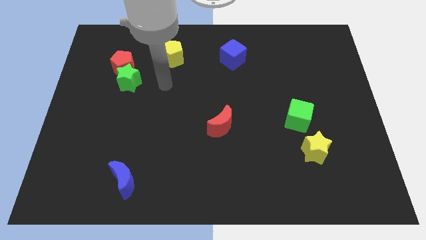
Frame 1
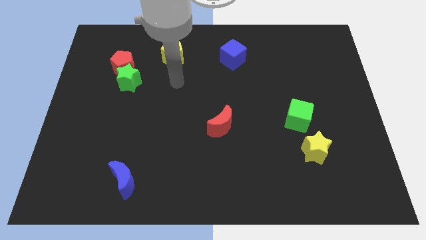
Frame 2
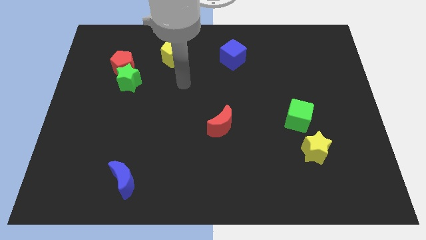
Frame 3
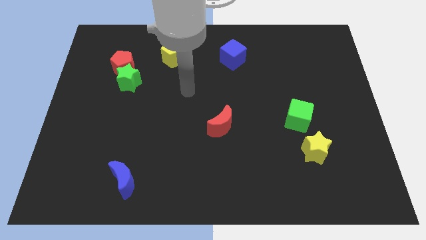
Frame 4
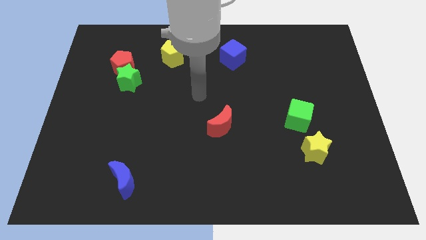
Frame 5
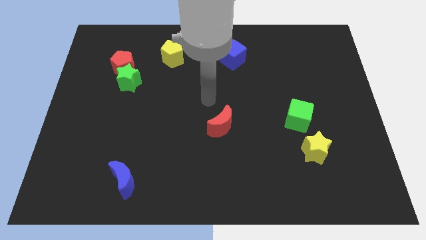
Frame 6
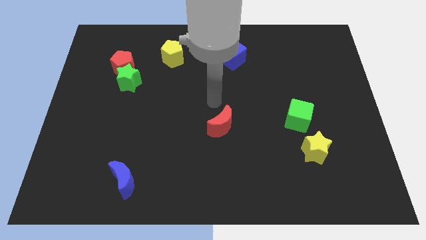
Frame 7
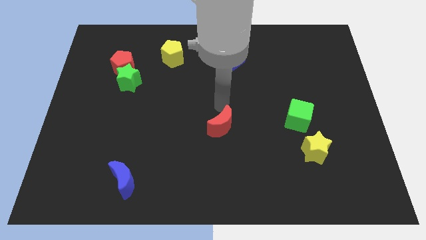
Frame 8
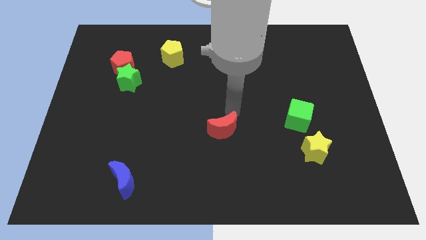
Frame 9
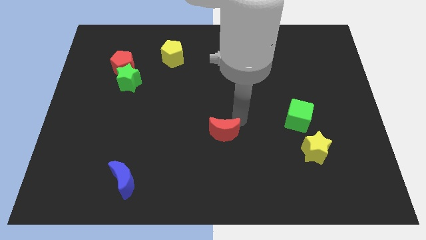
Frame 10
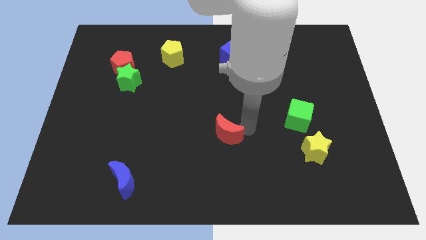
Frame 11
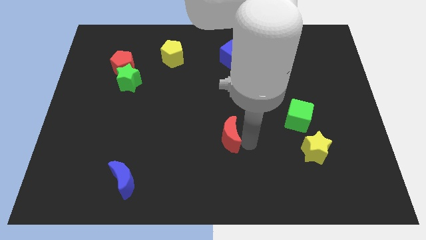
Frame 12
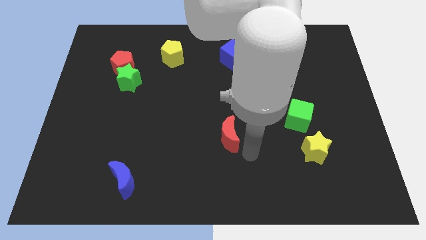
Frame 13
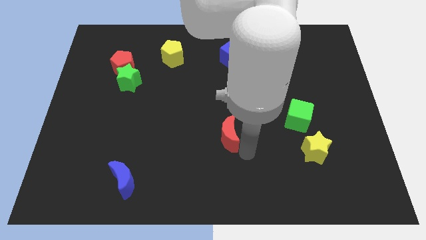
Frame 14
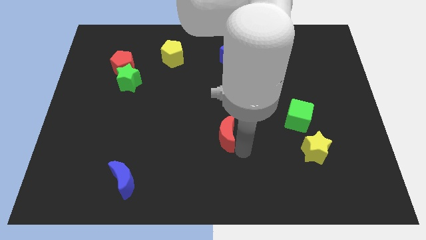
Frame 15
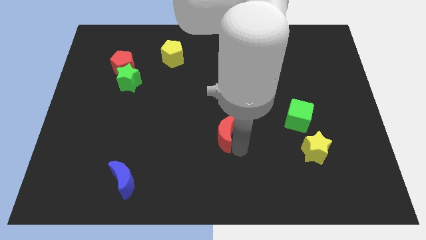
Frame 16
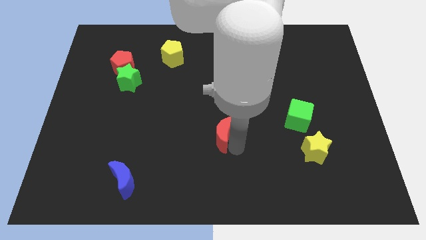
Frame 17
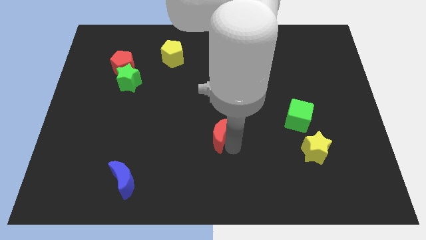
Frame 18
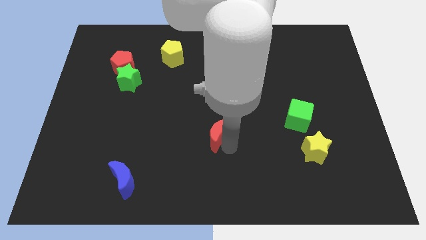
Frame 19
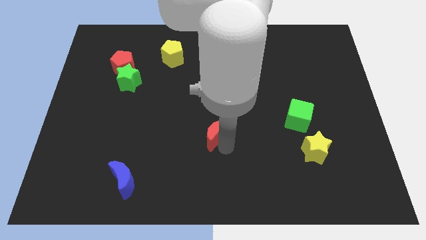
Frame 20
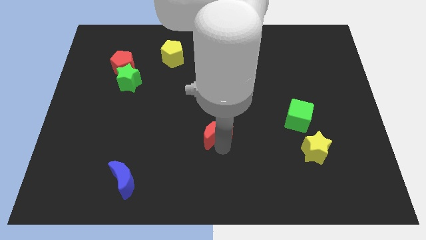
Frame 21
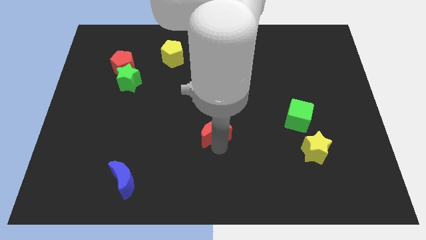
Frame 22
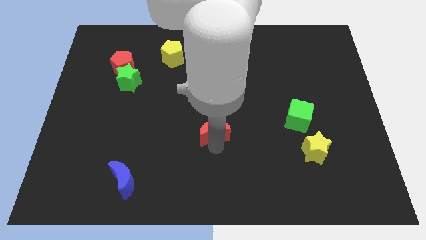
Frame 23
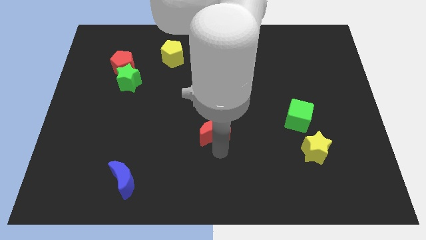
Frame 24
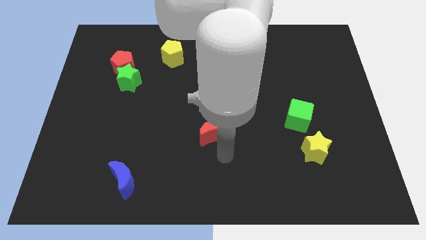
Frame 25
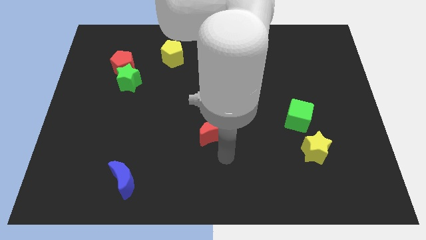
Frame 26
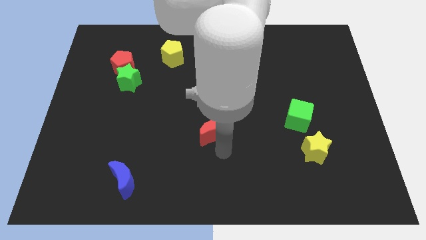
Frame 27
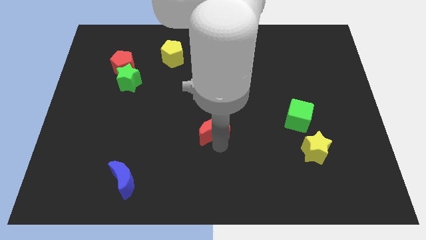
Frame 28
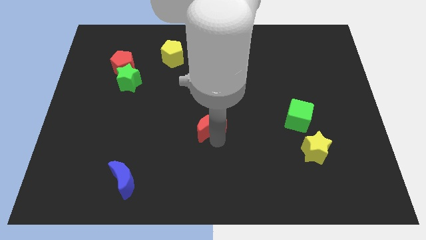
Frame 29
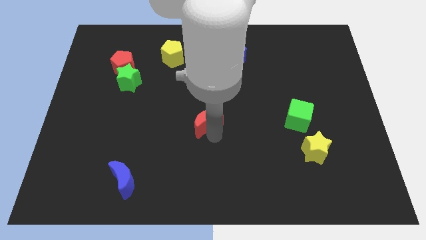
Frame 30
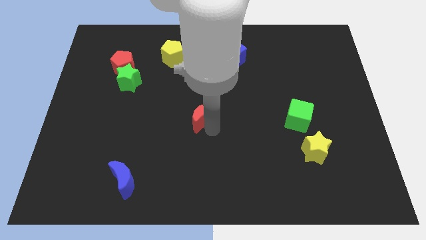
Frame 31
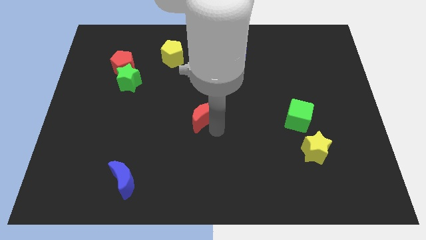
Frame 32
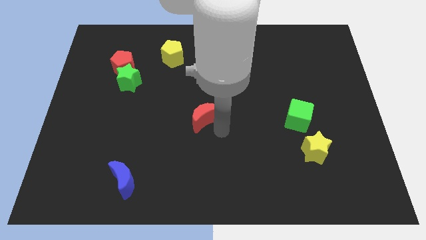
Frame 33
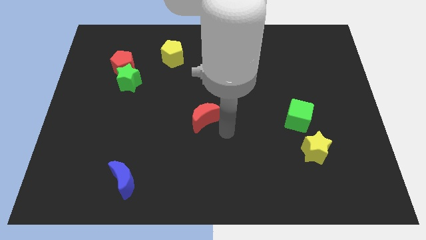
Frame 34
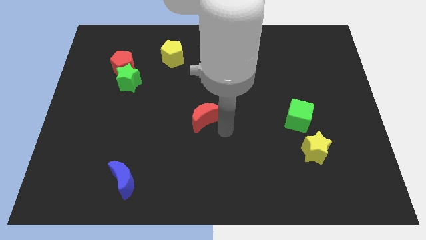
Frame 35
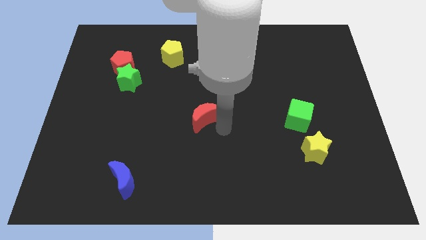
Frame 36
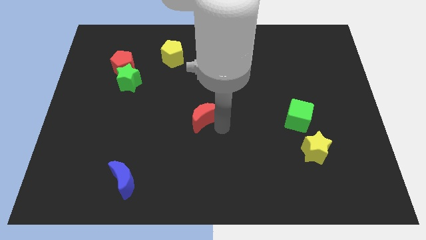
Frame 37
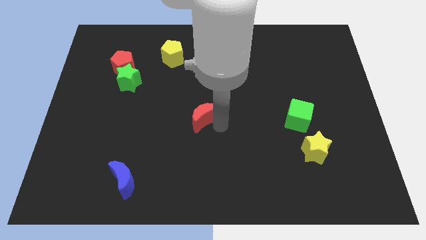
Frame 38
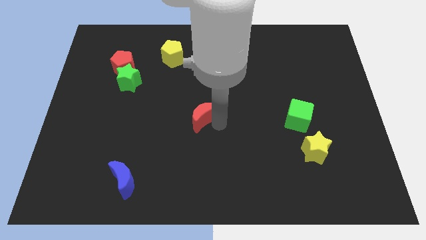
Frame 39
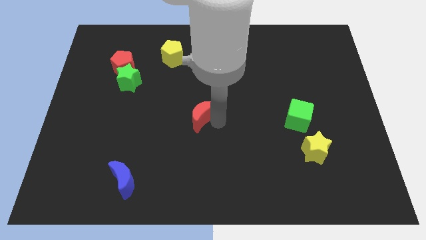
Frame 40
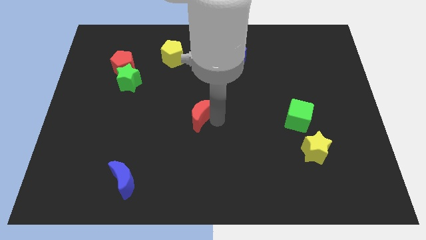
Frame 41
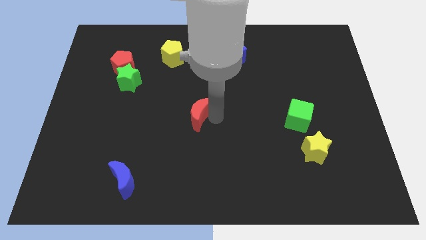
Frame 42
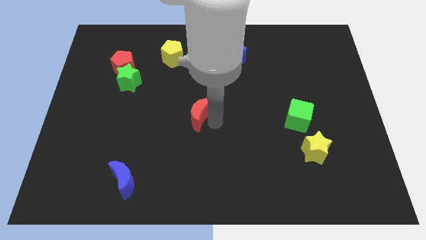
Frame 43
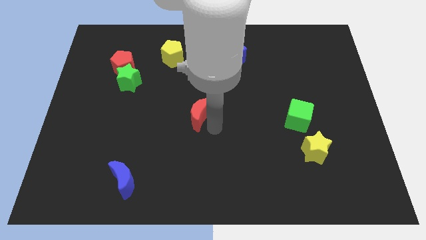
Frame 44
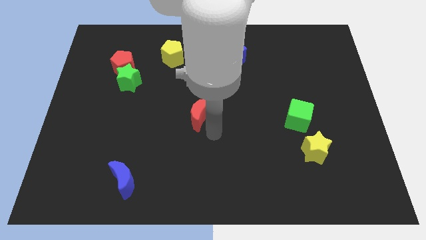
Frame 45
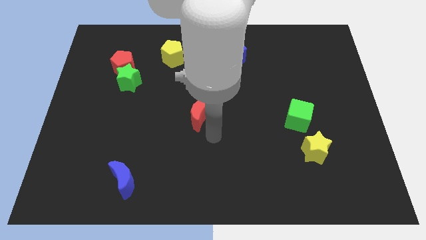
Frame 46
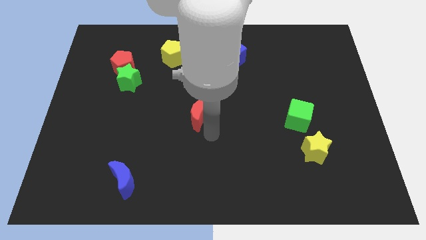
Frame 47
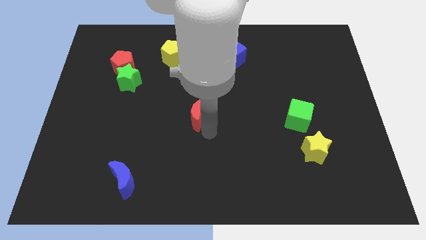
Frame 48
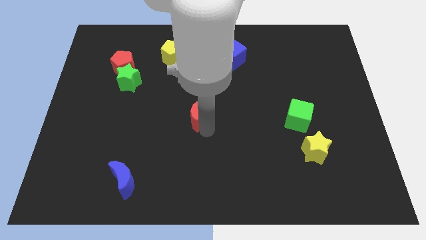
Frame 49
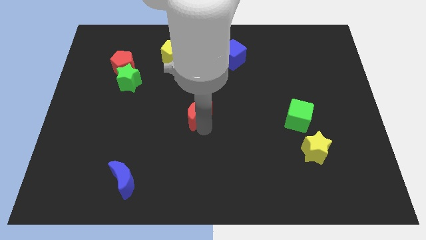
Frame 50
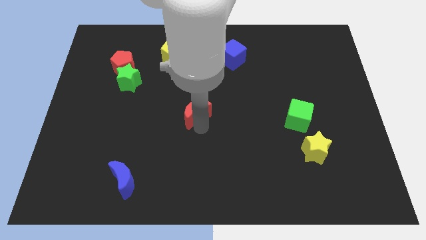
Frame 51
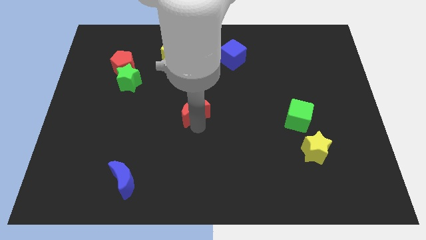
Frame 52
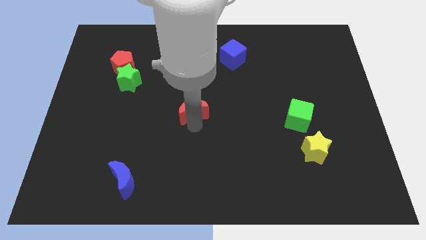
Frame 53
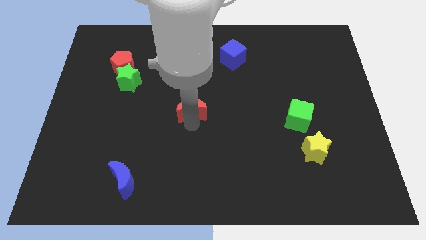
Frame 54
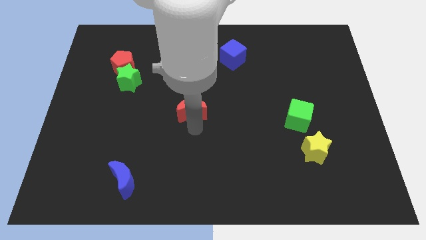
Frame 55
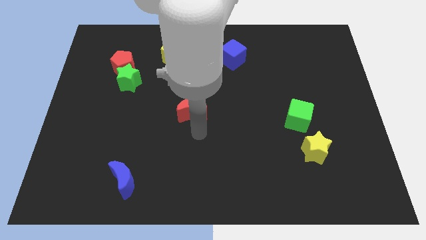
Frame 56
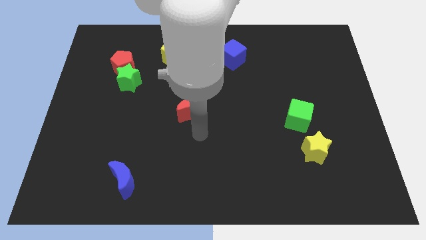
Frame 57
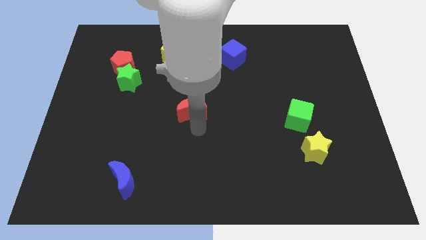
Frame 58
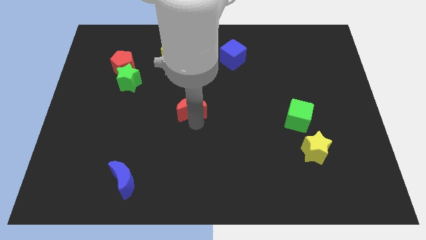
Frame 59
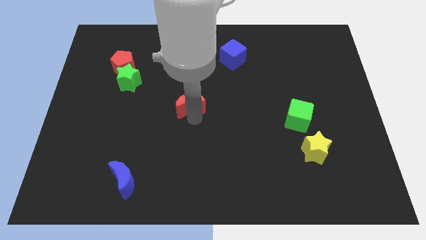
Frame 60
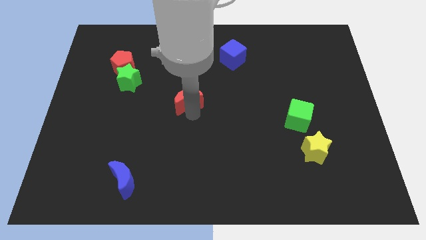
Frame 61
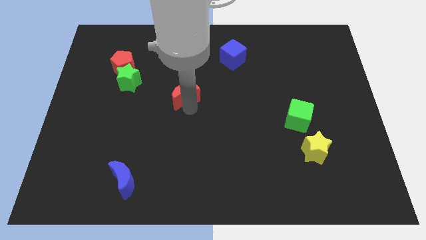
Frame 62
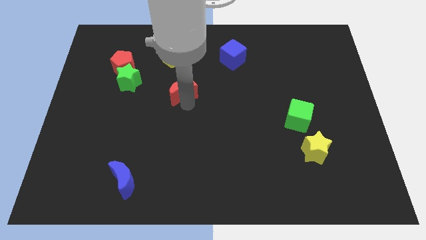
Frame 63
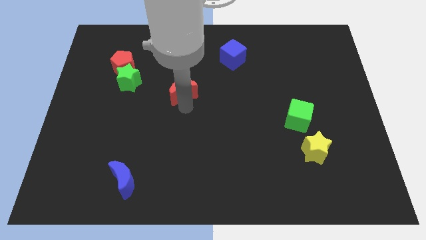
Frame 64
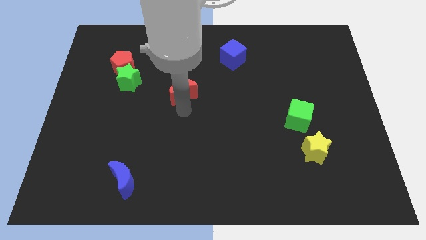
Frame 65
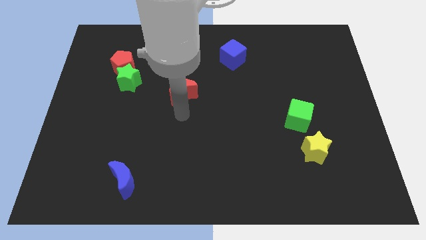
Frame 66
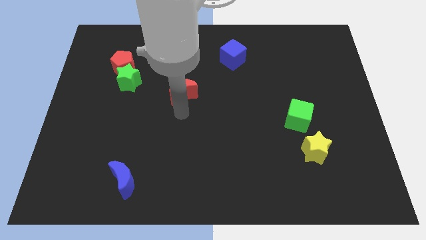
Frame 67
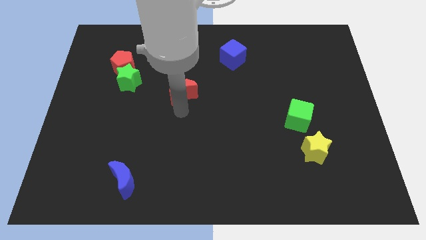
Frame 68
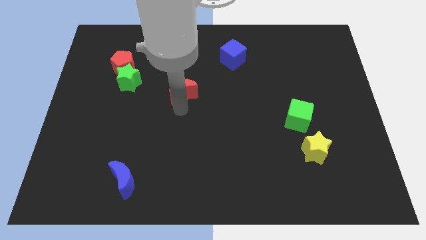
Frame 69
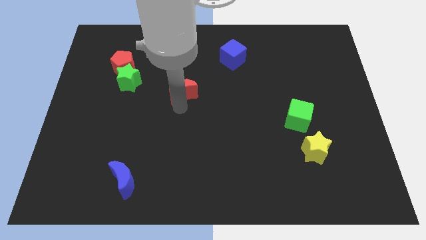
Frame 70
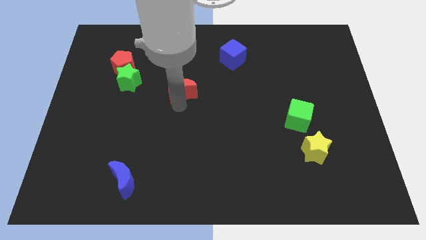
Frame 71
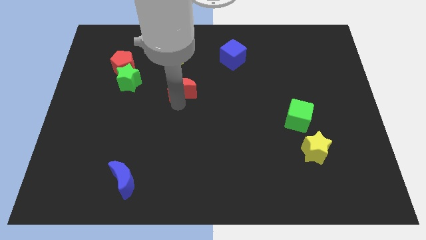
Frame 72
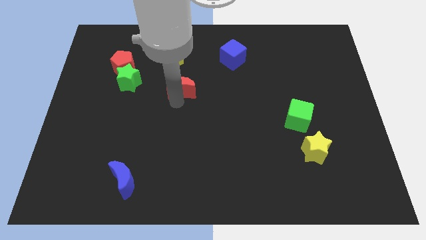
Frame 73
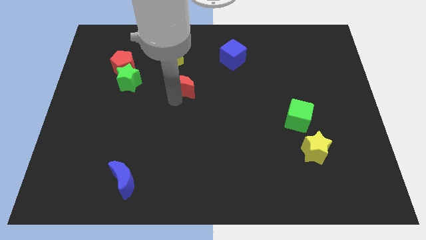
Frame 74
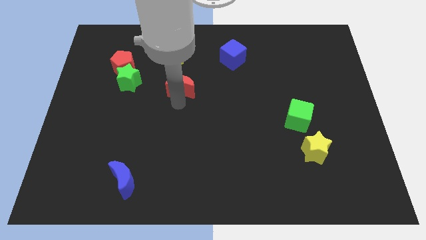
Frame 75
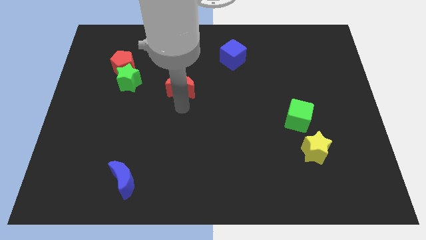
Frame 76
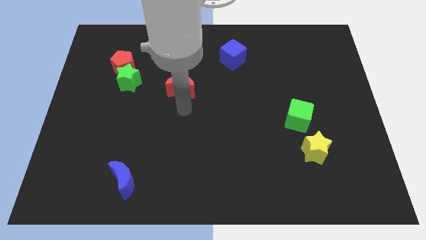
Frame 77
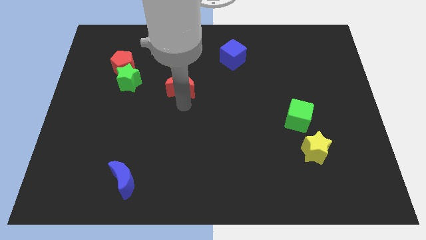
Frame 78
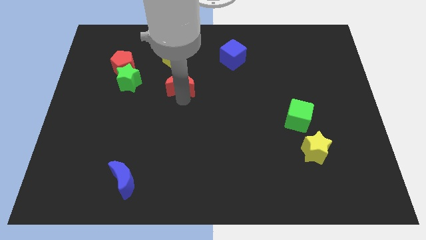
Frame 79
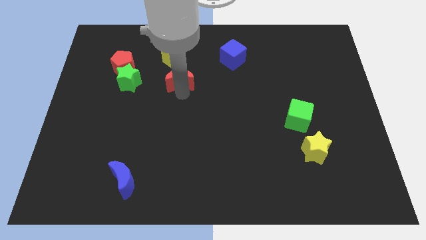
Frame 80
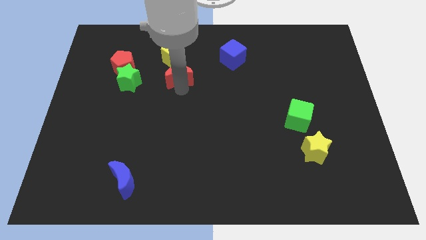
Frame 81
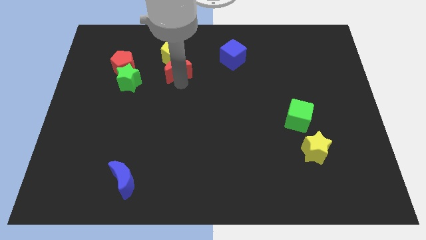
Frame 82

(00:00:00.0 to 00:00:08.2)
slide the red moon next to the yellow pentagon
